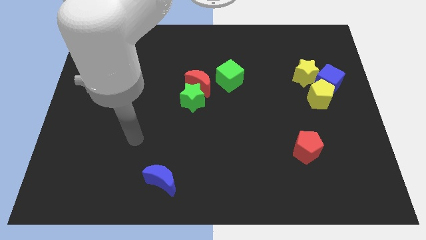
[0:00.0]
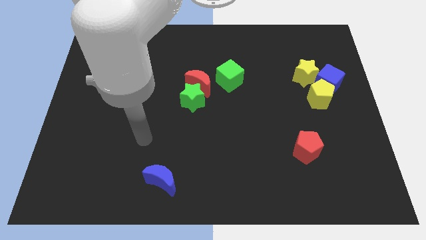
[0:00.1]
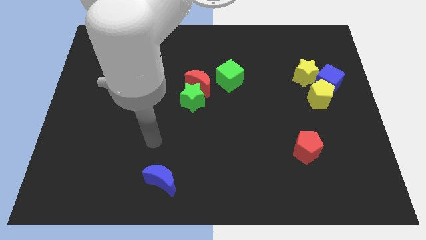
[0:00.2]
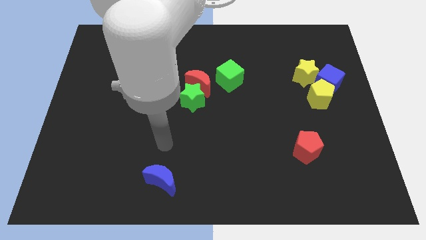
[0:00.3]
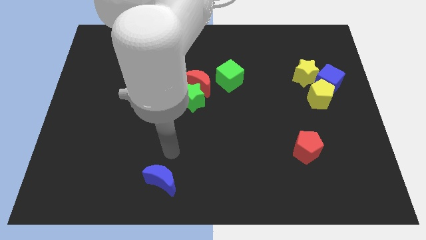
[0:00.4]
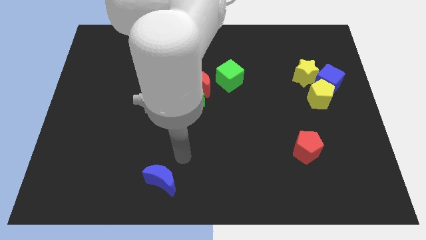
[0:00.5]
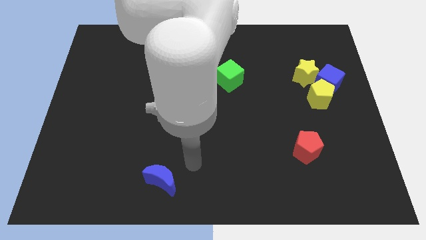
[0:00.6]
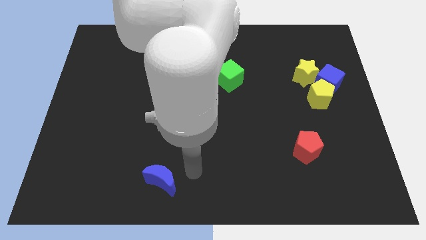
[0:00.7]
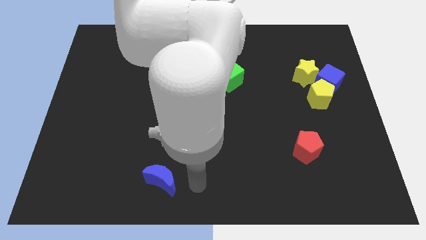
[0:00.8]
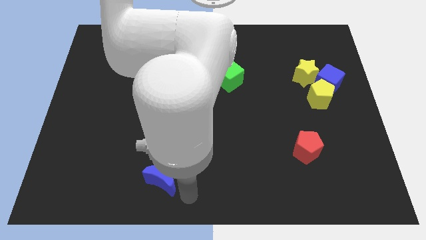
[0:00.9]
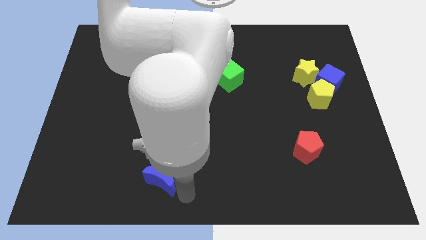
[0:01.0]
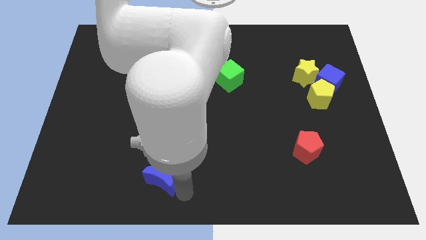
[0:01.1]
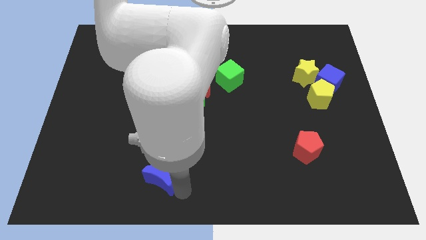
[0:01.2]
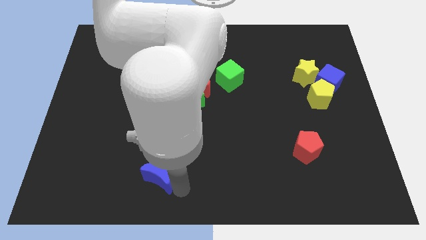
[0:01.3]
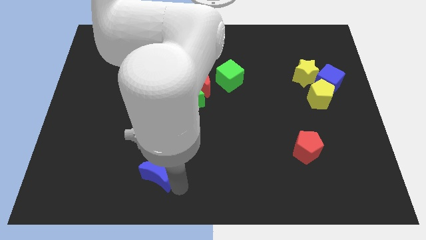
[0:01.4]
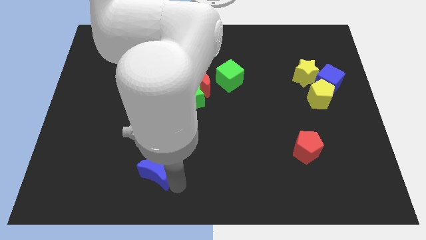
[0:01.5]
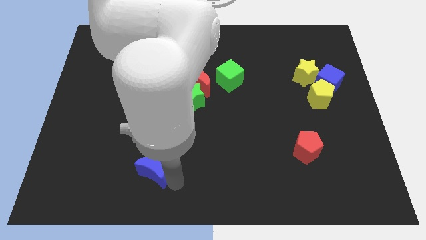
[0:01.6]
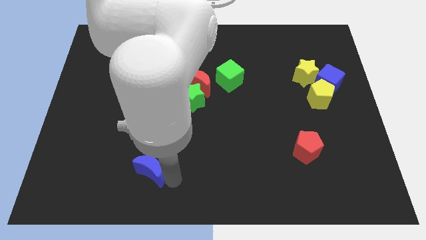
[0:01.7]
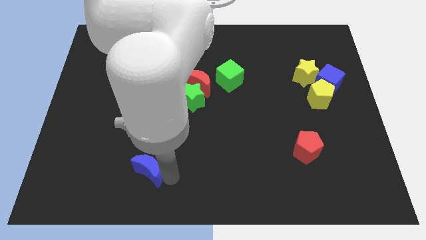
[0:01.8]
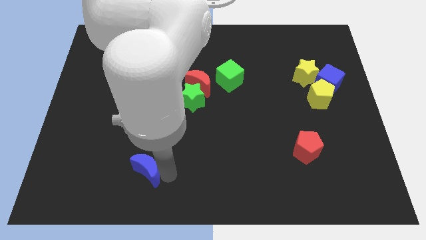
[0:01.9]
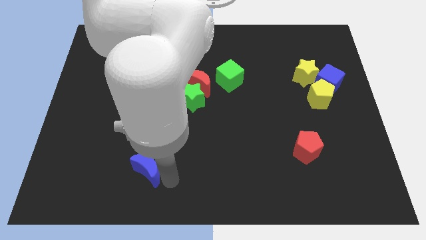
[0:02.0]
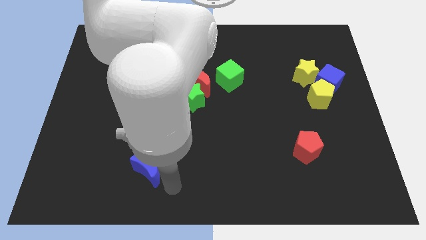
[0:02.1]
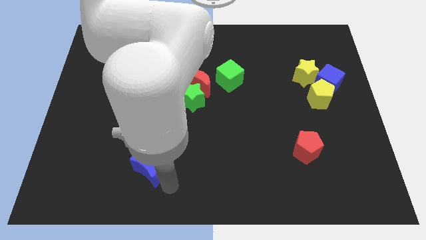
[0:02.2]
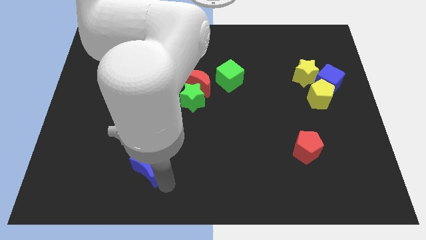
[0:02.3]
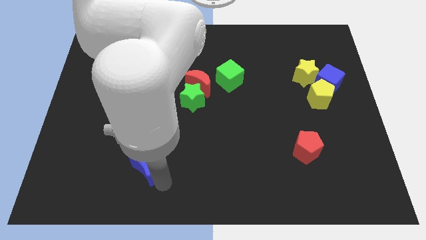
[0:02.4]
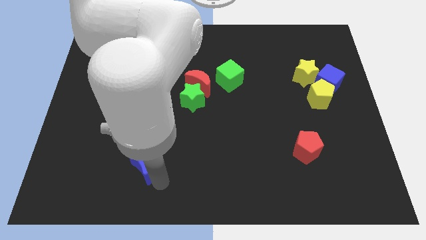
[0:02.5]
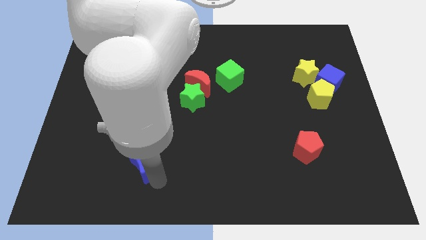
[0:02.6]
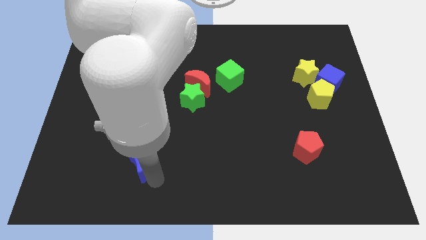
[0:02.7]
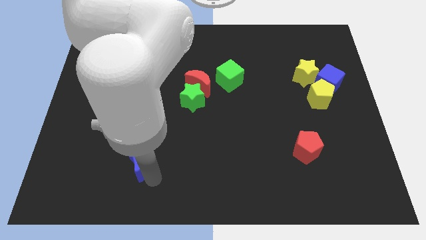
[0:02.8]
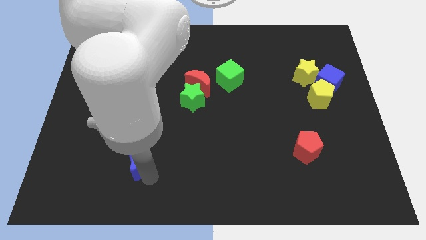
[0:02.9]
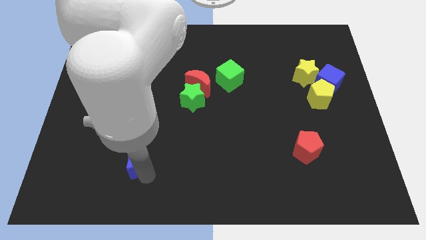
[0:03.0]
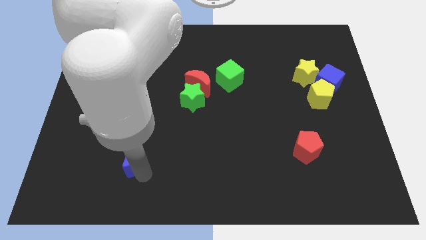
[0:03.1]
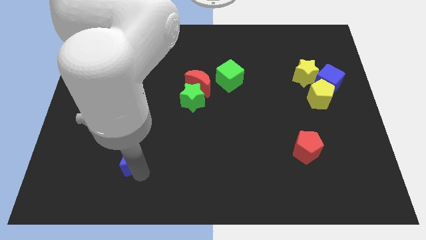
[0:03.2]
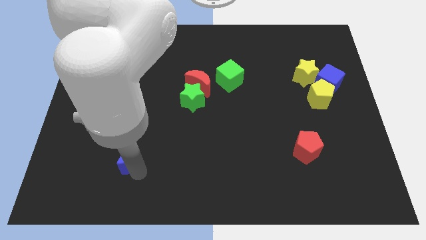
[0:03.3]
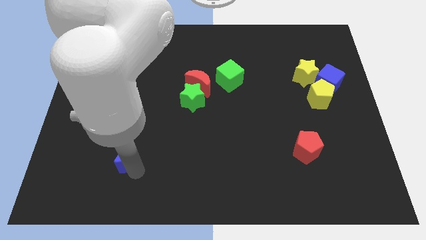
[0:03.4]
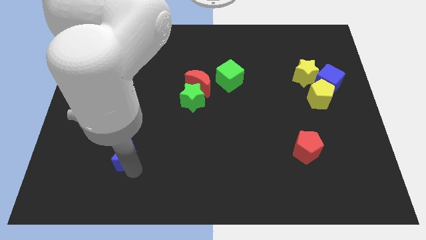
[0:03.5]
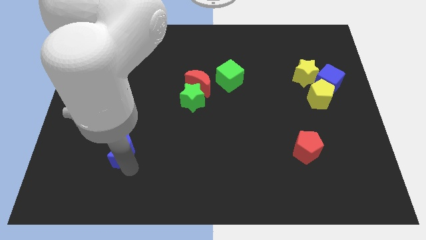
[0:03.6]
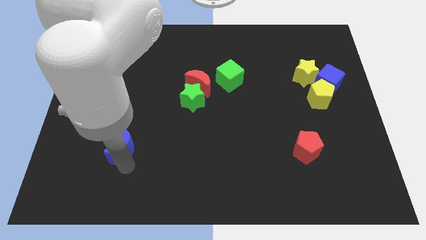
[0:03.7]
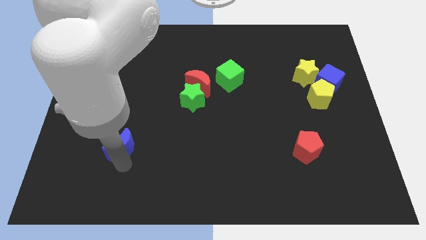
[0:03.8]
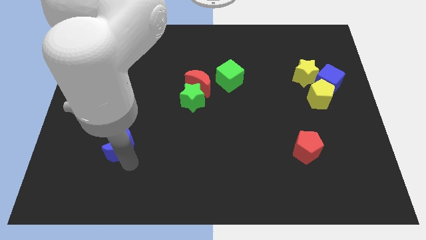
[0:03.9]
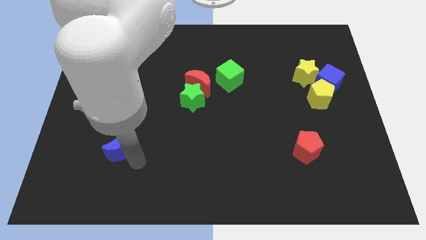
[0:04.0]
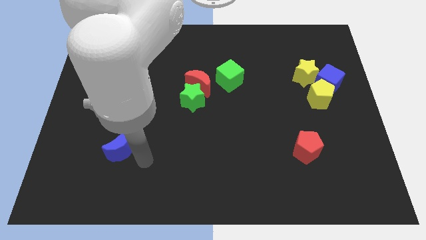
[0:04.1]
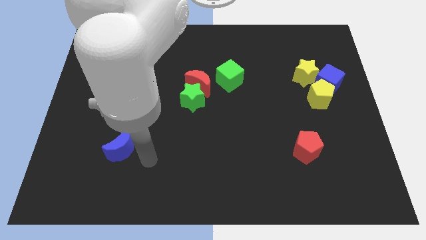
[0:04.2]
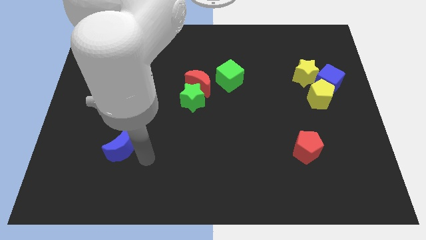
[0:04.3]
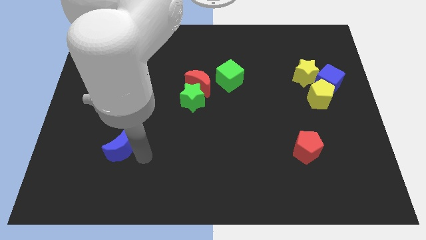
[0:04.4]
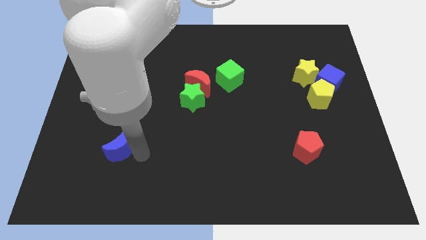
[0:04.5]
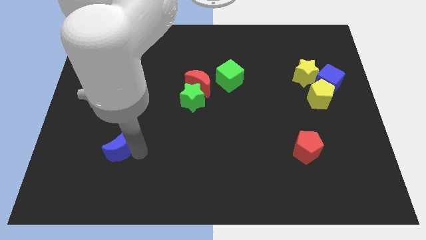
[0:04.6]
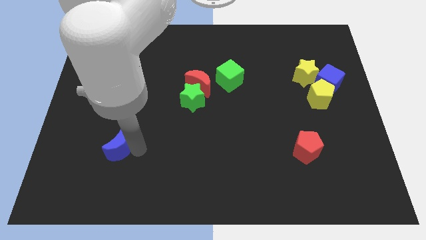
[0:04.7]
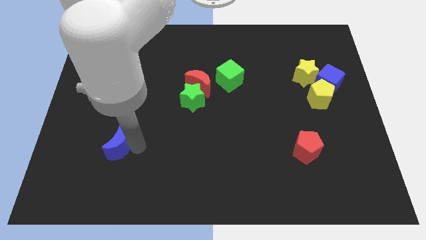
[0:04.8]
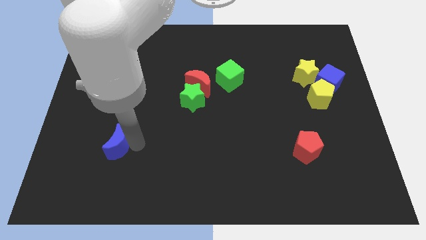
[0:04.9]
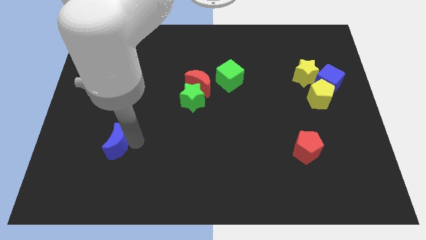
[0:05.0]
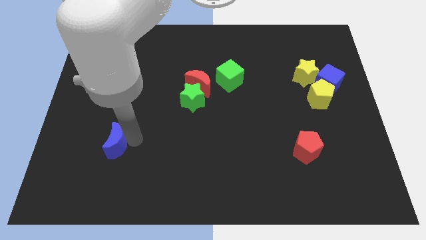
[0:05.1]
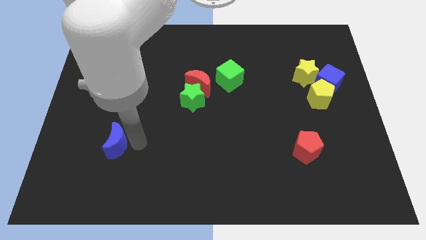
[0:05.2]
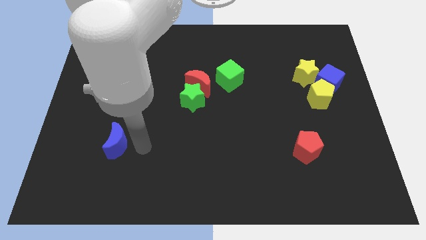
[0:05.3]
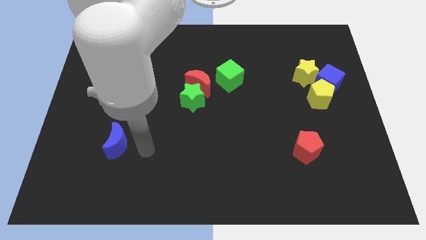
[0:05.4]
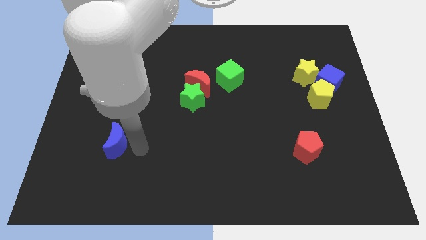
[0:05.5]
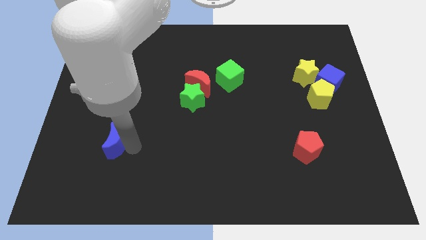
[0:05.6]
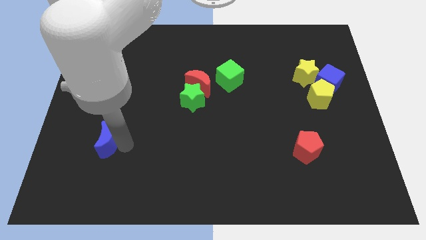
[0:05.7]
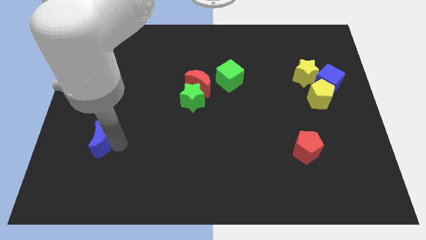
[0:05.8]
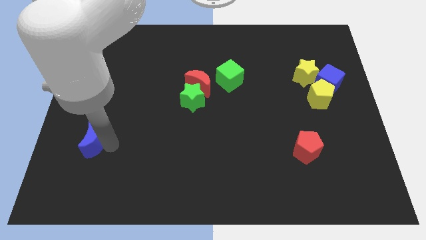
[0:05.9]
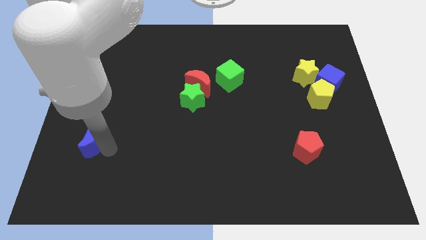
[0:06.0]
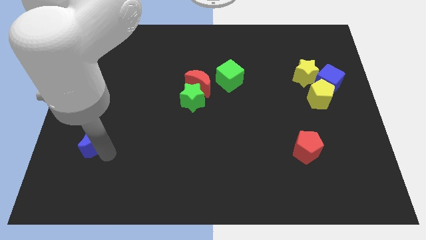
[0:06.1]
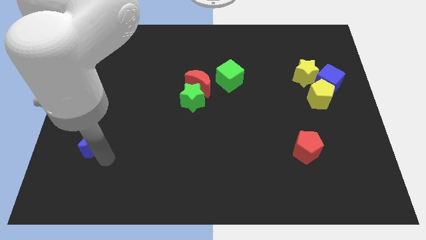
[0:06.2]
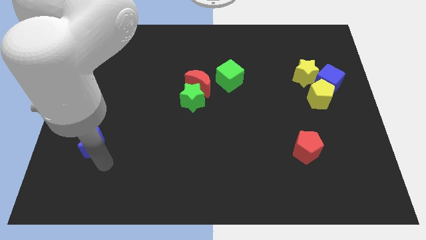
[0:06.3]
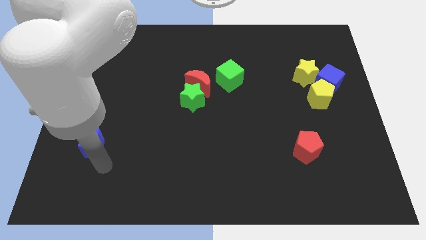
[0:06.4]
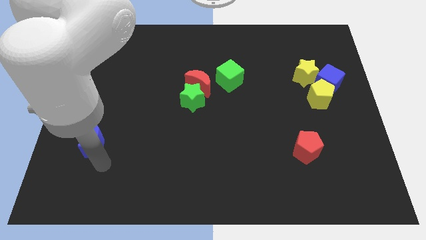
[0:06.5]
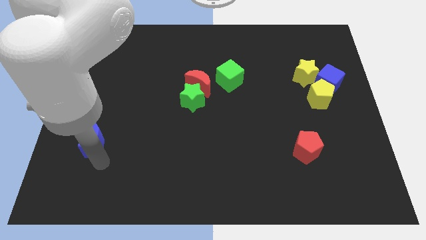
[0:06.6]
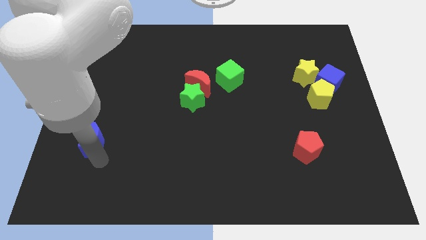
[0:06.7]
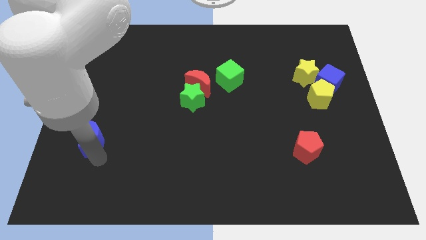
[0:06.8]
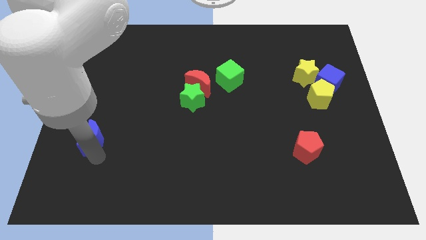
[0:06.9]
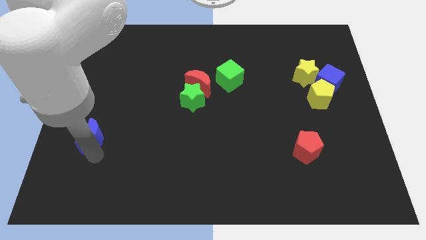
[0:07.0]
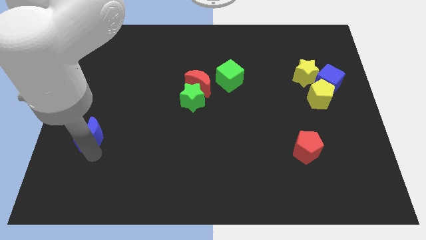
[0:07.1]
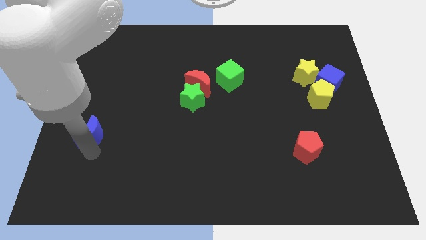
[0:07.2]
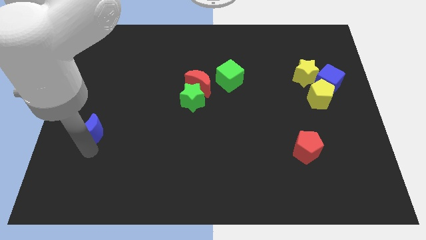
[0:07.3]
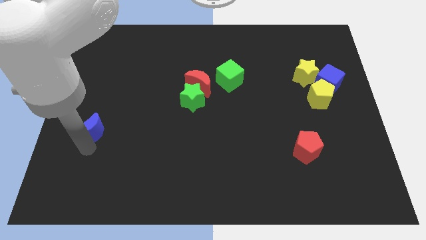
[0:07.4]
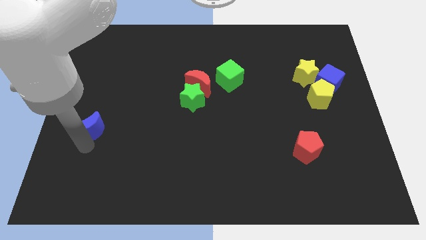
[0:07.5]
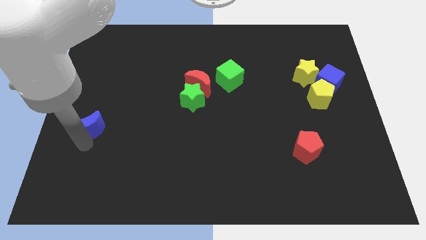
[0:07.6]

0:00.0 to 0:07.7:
put the blue moon to the left side
